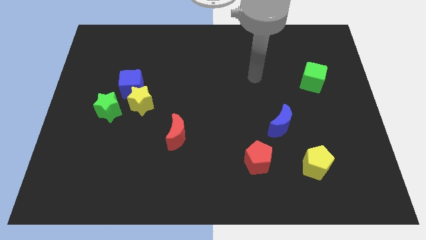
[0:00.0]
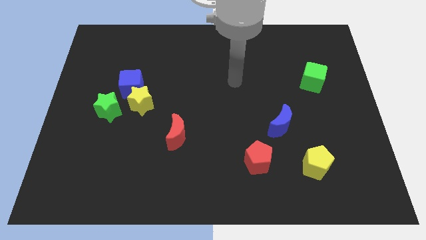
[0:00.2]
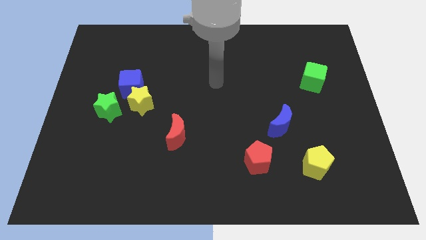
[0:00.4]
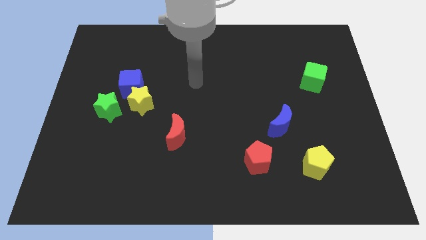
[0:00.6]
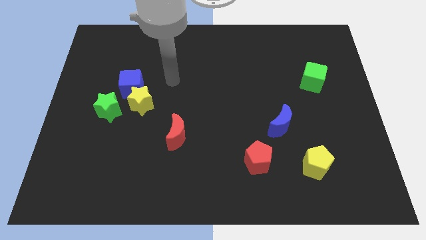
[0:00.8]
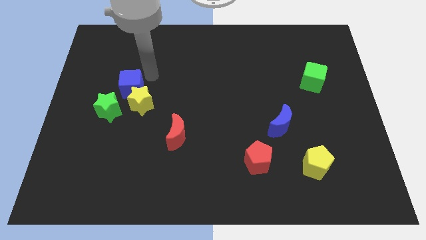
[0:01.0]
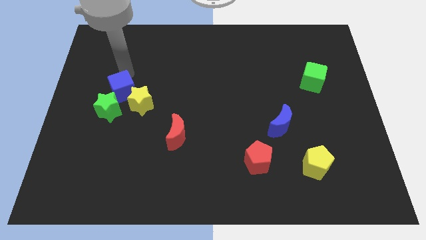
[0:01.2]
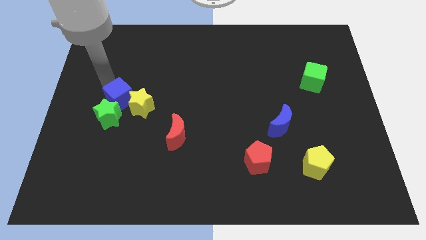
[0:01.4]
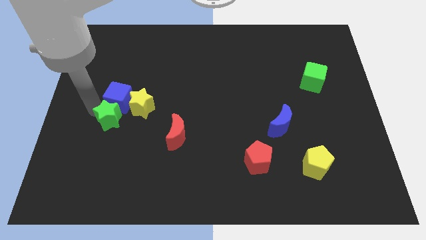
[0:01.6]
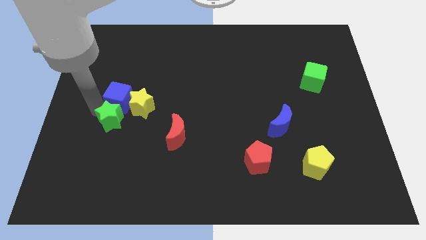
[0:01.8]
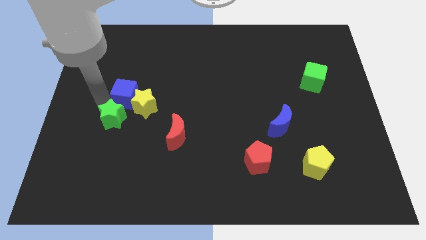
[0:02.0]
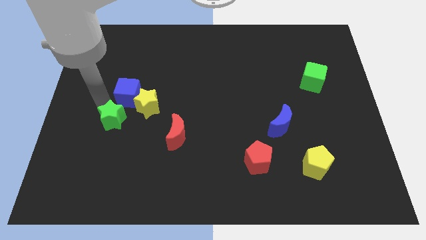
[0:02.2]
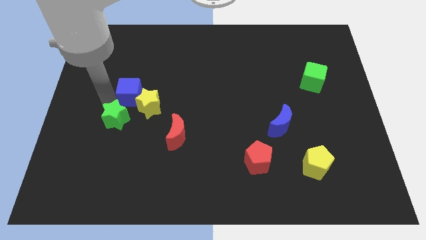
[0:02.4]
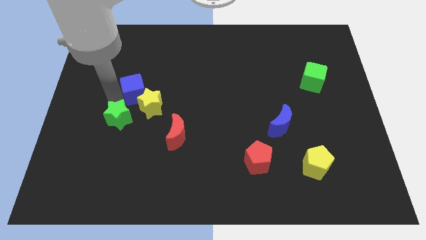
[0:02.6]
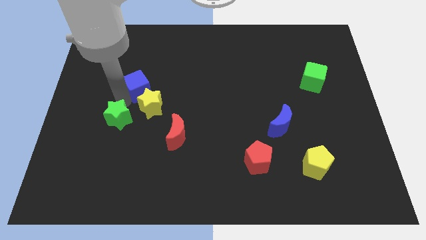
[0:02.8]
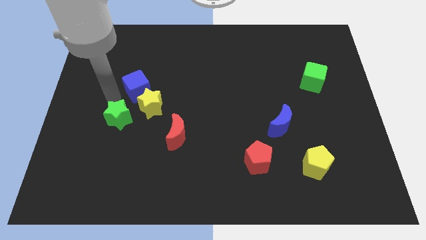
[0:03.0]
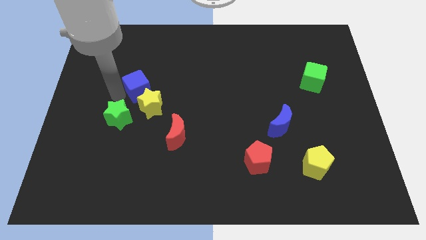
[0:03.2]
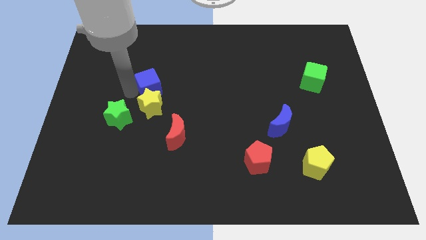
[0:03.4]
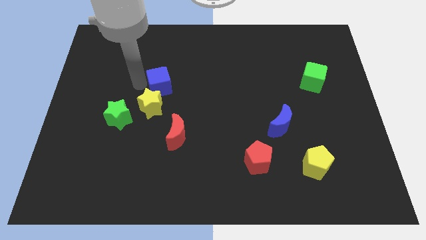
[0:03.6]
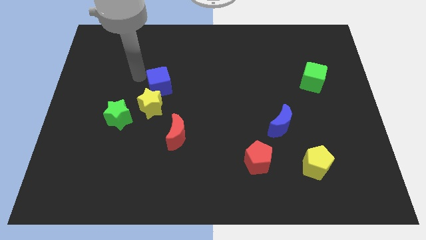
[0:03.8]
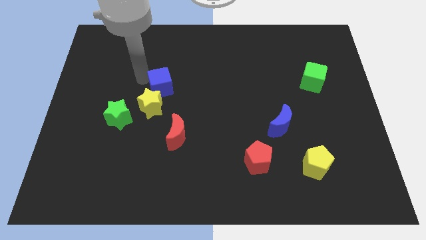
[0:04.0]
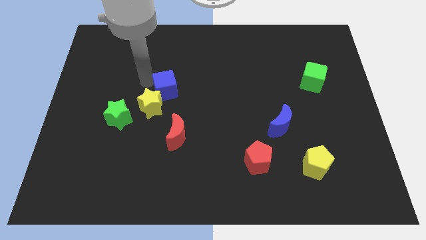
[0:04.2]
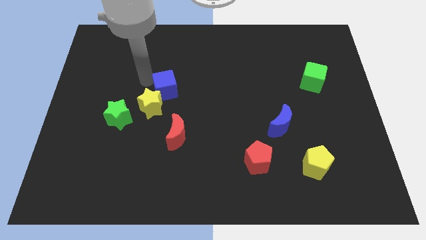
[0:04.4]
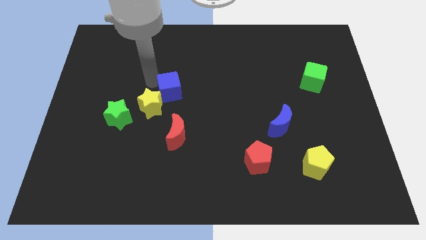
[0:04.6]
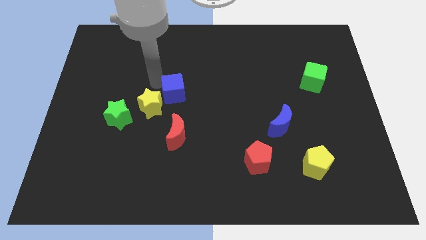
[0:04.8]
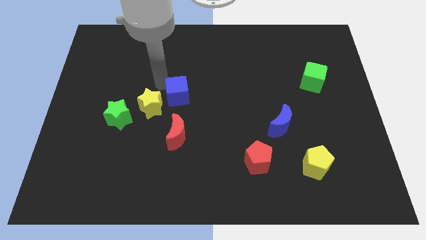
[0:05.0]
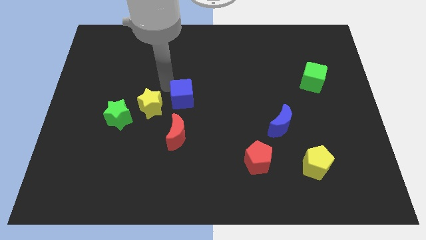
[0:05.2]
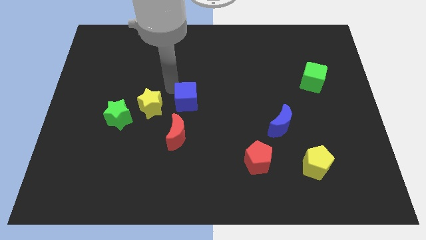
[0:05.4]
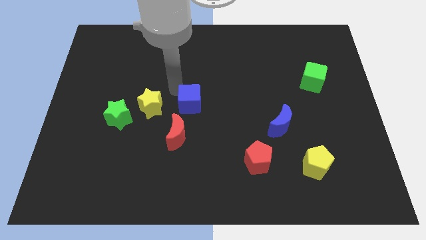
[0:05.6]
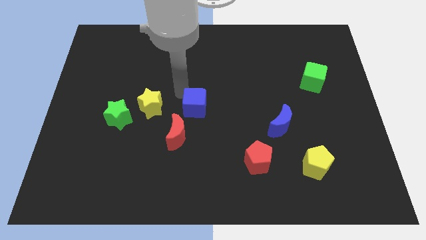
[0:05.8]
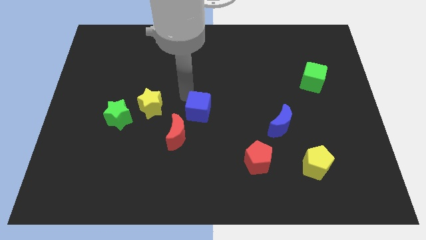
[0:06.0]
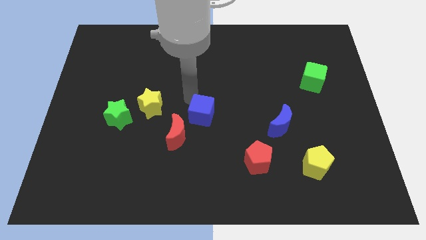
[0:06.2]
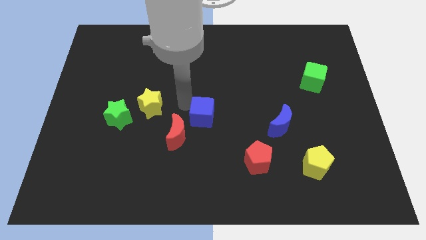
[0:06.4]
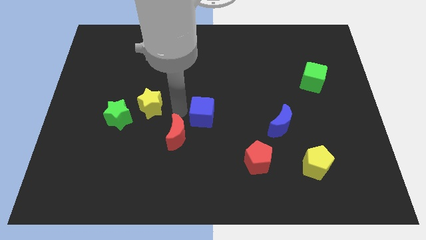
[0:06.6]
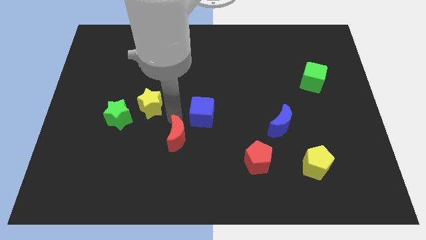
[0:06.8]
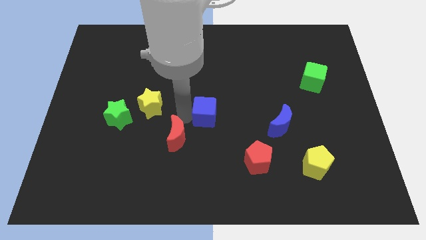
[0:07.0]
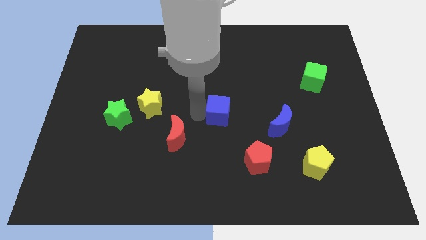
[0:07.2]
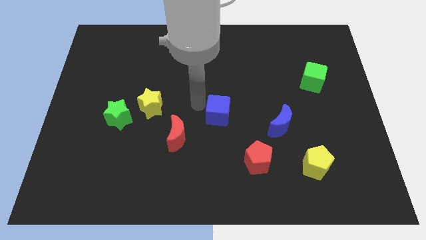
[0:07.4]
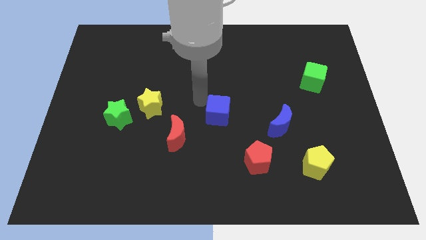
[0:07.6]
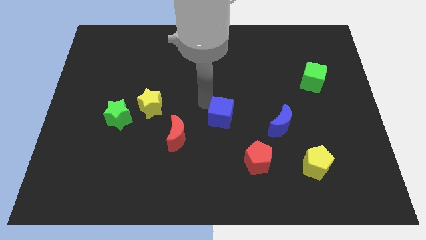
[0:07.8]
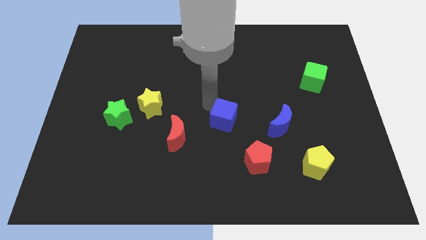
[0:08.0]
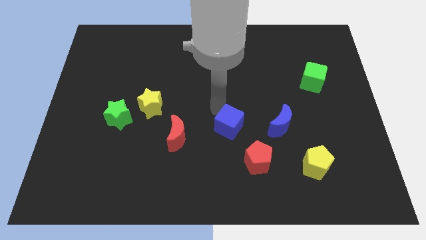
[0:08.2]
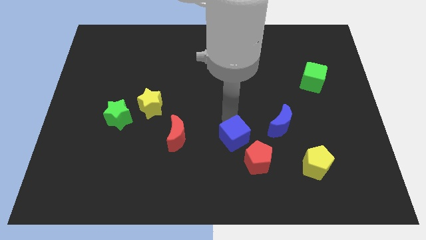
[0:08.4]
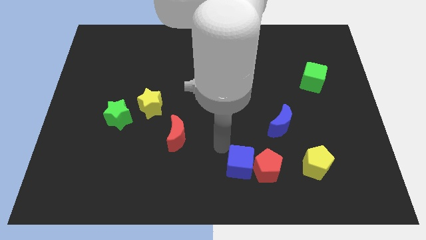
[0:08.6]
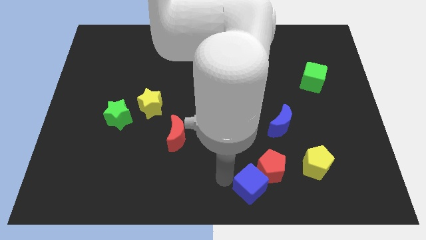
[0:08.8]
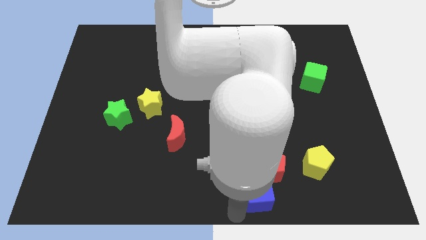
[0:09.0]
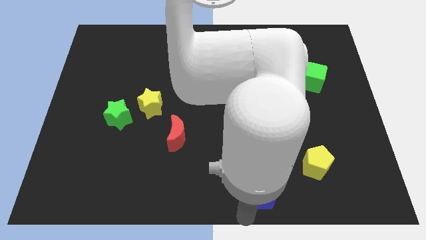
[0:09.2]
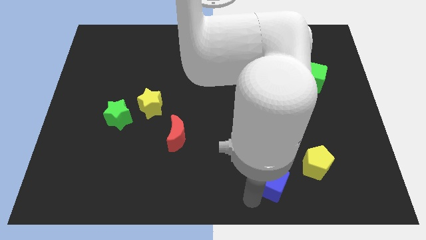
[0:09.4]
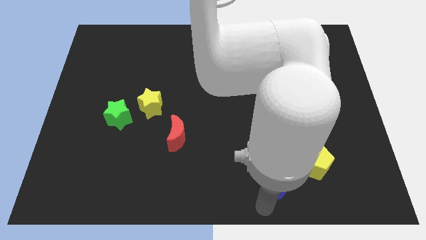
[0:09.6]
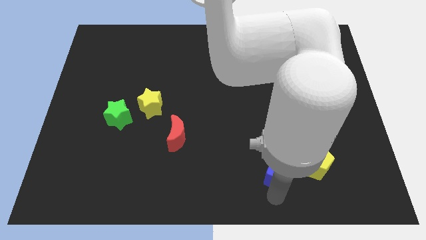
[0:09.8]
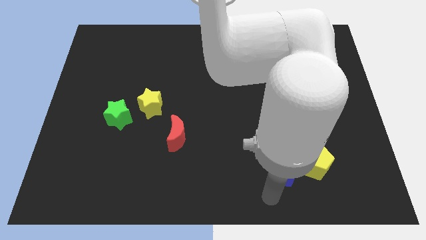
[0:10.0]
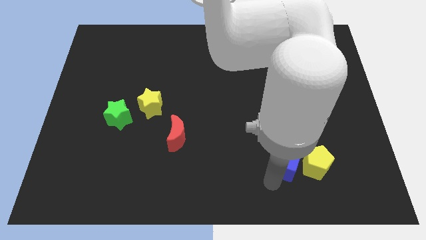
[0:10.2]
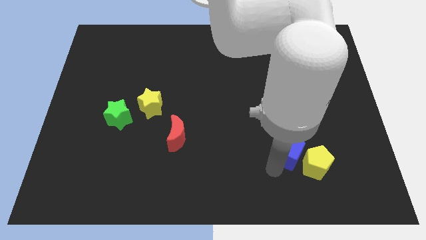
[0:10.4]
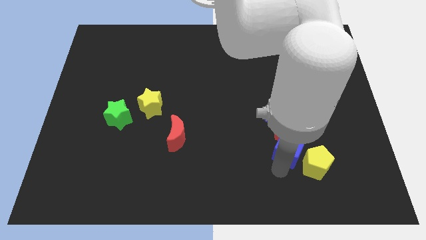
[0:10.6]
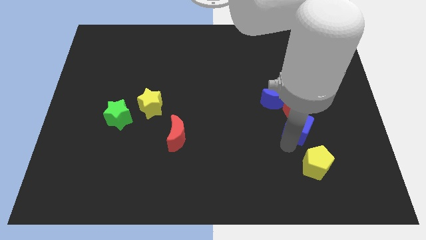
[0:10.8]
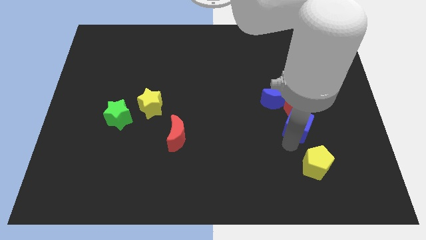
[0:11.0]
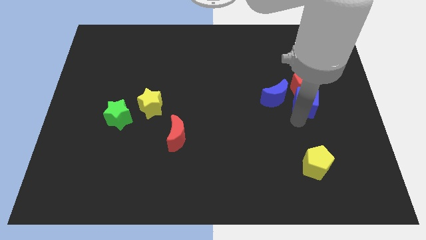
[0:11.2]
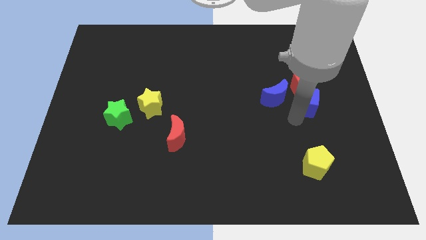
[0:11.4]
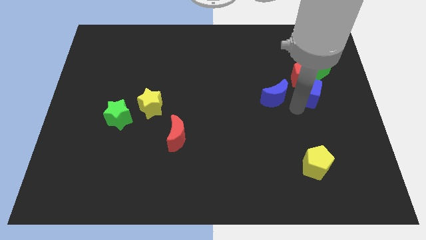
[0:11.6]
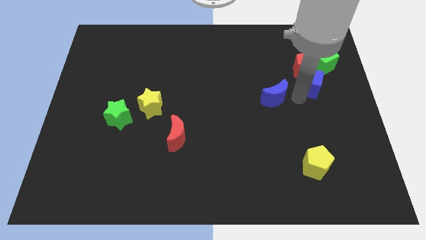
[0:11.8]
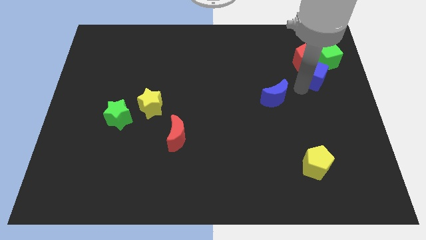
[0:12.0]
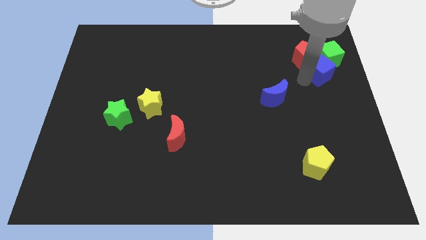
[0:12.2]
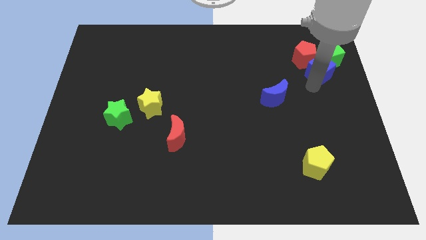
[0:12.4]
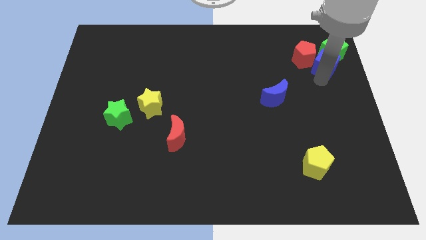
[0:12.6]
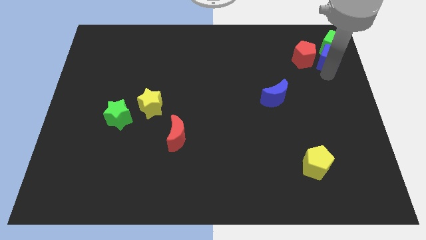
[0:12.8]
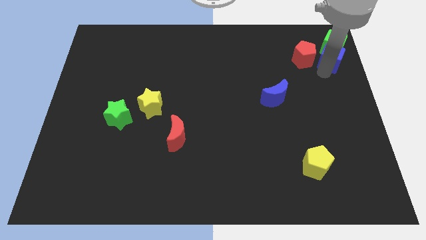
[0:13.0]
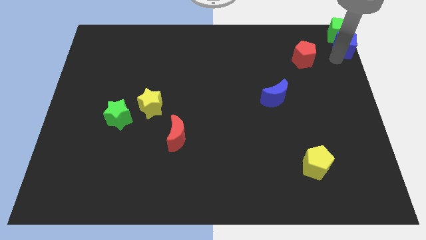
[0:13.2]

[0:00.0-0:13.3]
put the blue cube to the top right of the board

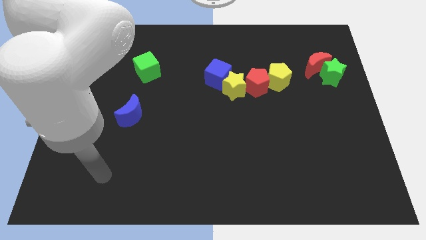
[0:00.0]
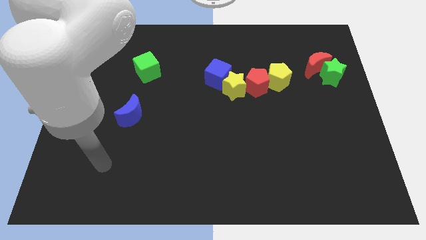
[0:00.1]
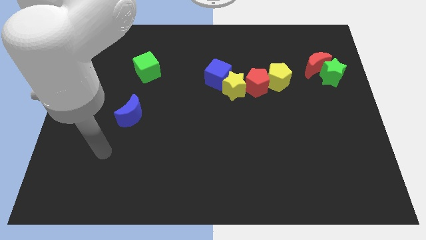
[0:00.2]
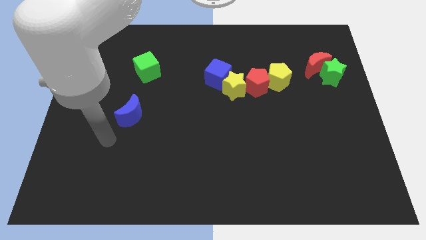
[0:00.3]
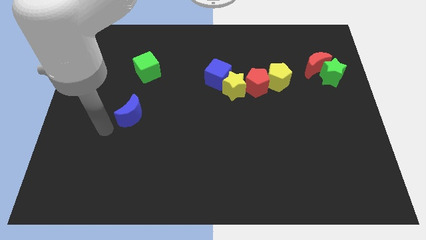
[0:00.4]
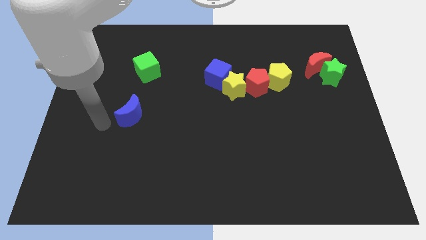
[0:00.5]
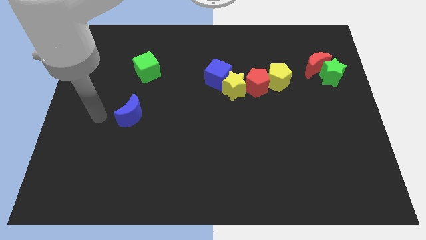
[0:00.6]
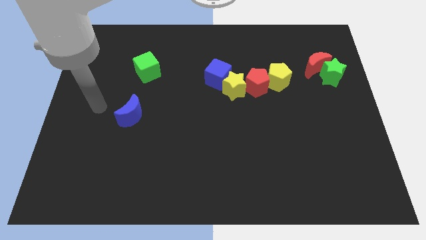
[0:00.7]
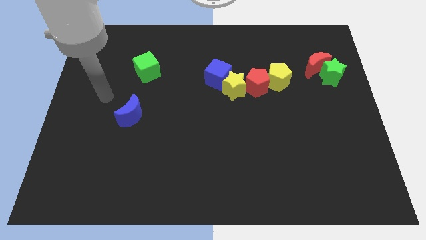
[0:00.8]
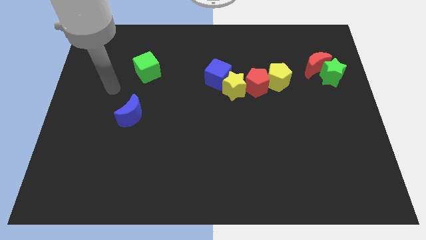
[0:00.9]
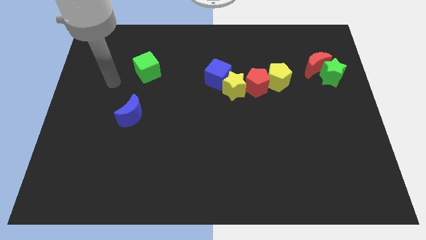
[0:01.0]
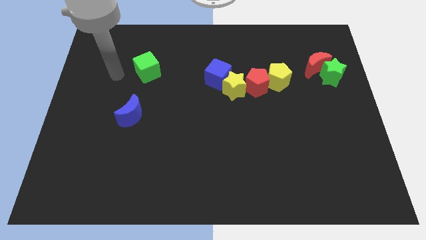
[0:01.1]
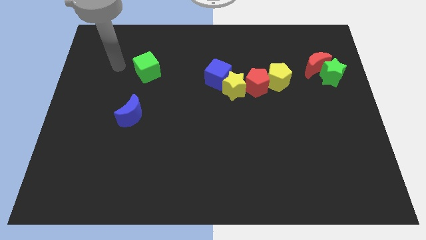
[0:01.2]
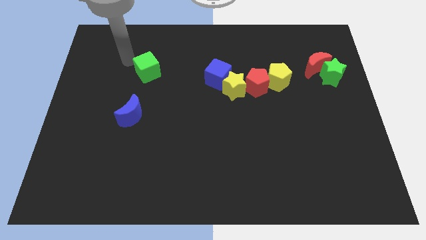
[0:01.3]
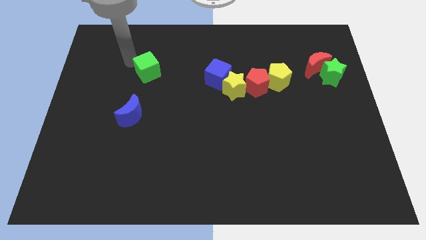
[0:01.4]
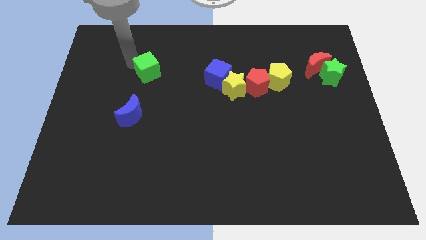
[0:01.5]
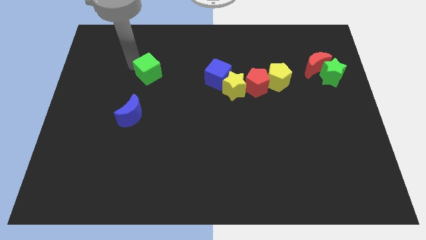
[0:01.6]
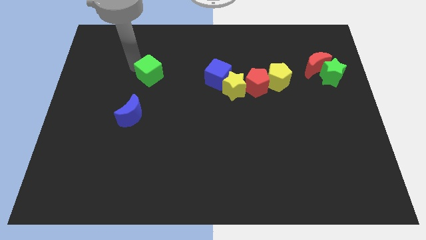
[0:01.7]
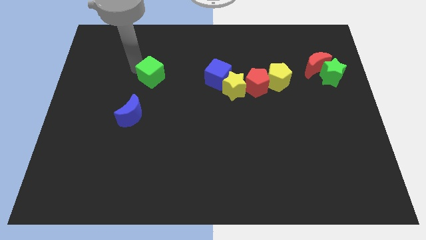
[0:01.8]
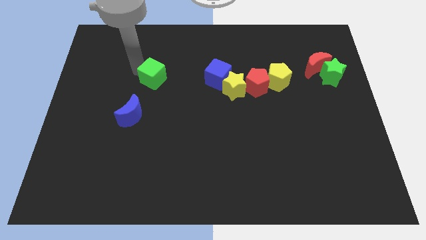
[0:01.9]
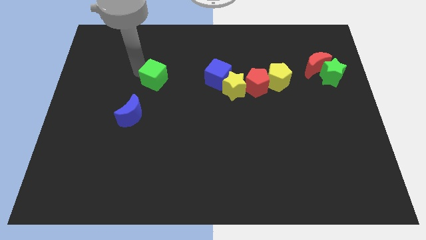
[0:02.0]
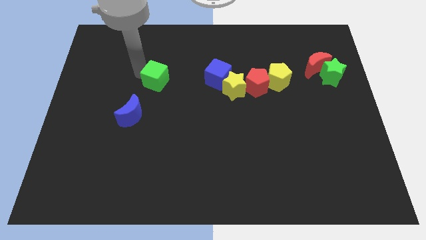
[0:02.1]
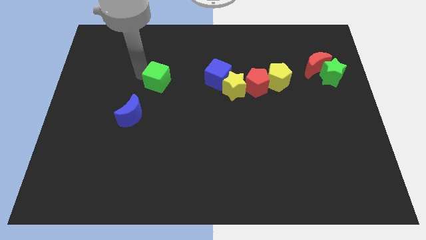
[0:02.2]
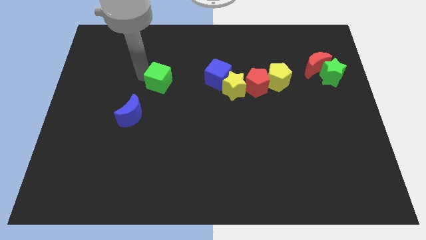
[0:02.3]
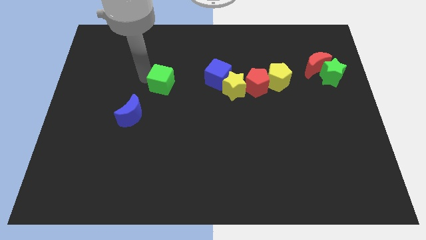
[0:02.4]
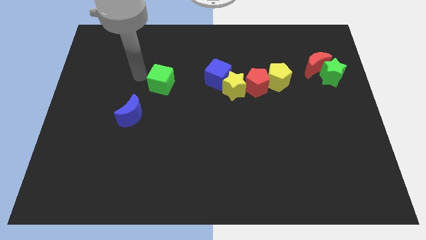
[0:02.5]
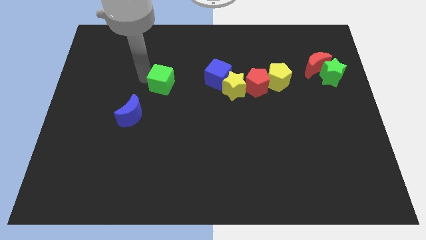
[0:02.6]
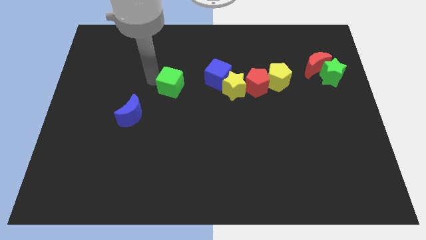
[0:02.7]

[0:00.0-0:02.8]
move the green cube to the center
